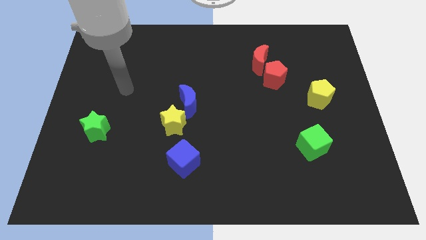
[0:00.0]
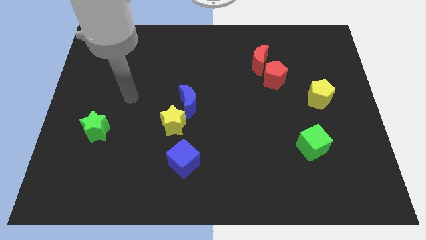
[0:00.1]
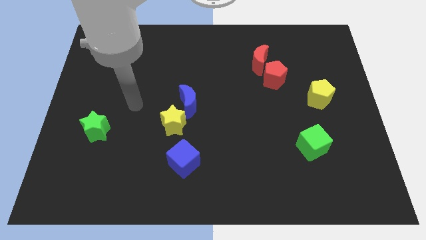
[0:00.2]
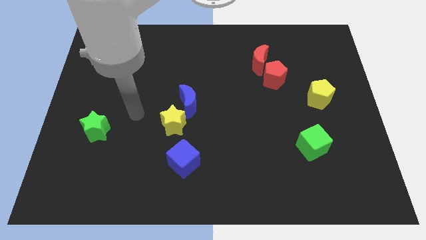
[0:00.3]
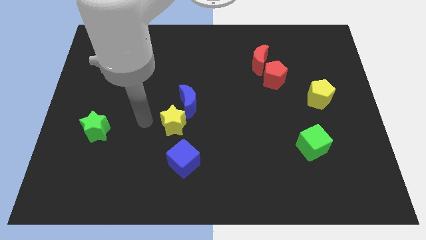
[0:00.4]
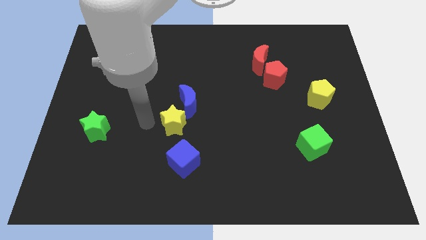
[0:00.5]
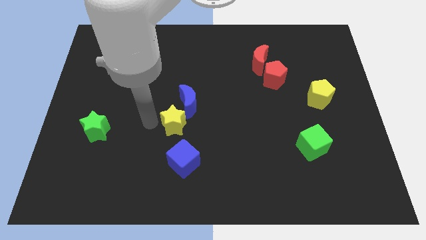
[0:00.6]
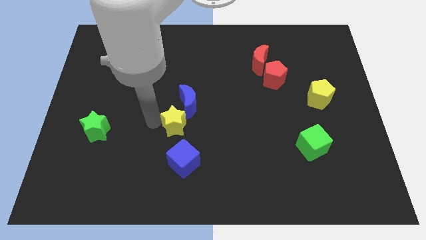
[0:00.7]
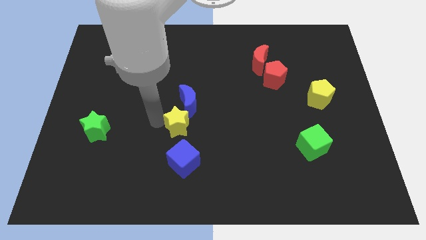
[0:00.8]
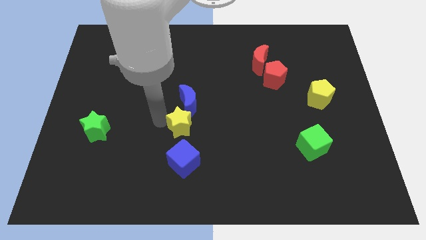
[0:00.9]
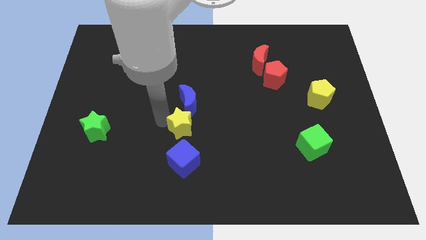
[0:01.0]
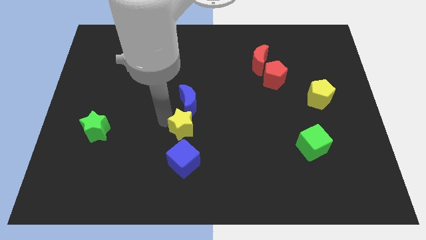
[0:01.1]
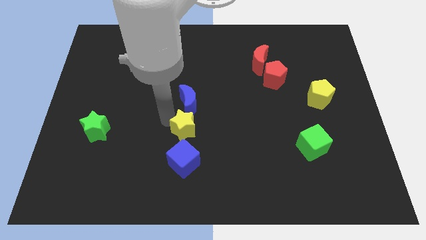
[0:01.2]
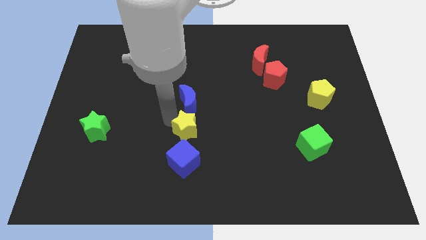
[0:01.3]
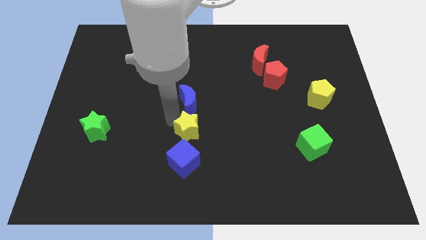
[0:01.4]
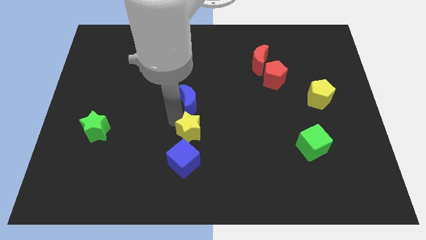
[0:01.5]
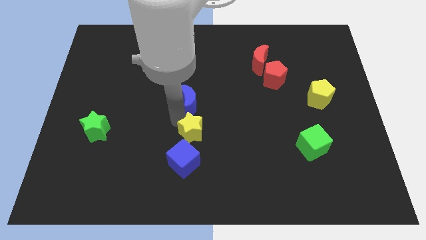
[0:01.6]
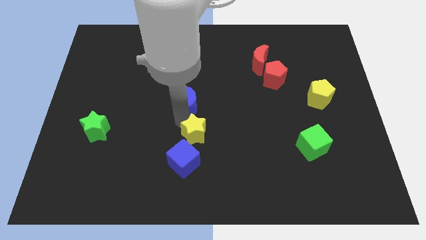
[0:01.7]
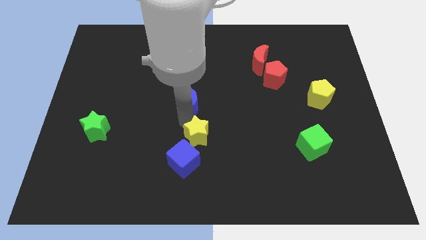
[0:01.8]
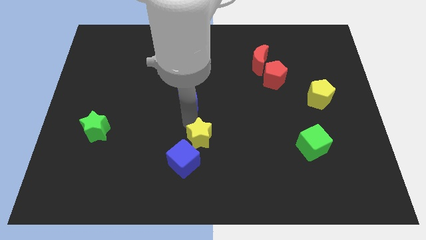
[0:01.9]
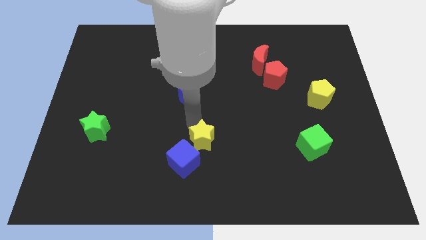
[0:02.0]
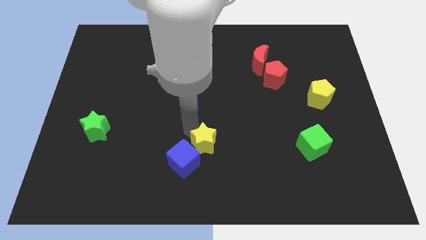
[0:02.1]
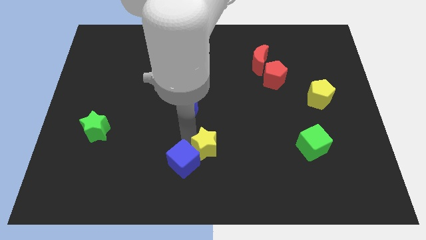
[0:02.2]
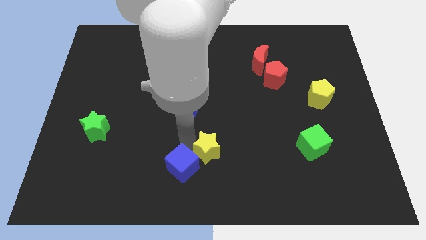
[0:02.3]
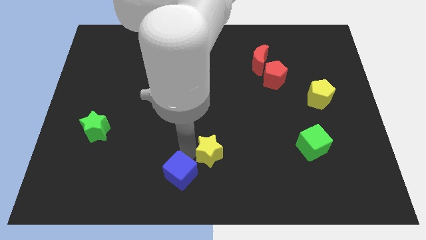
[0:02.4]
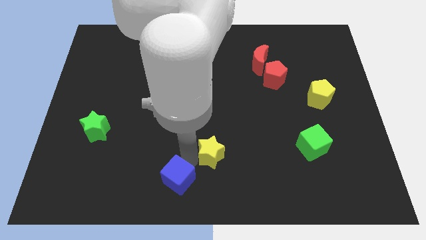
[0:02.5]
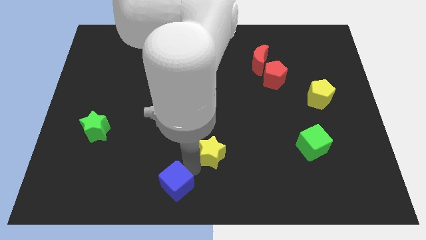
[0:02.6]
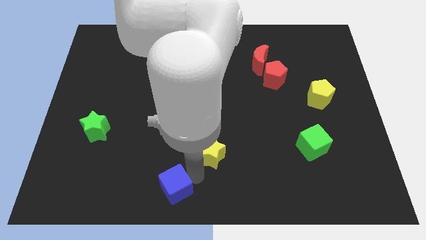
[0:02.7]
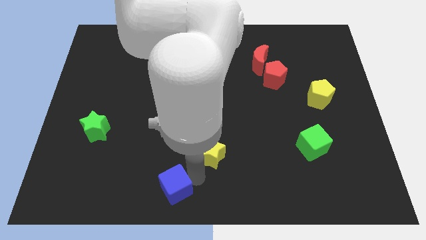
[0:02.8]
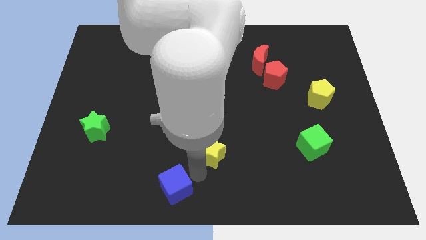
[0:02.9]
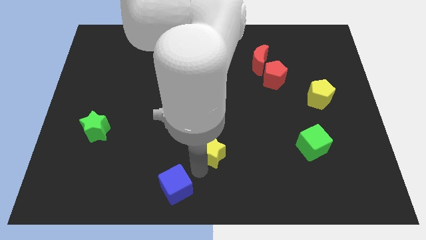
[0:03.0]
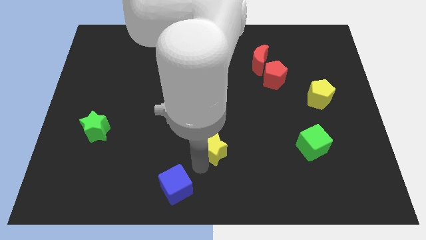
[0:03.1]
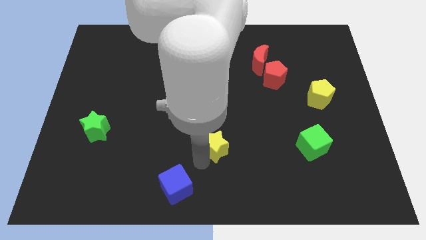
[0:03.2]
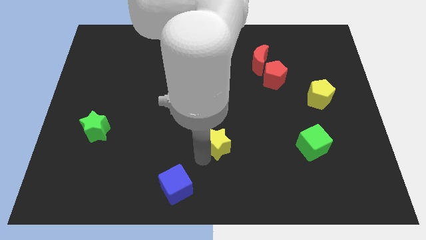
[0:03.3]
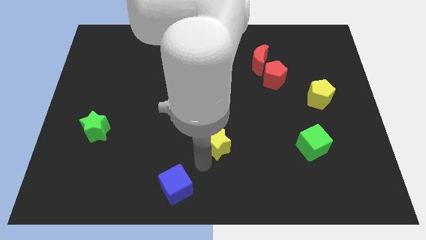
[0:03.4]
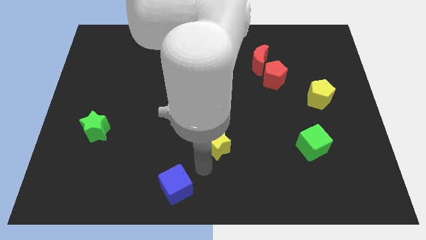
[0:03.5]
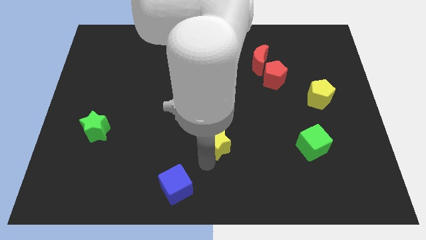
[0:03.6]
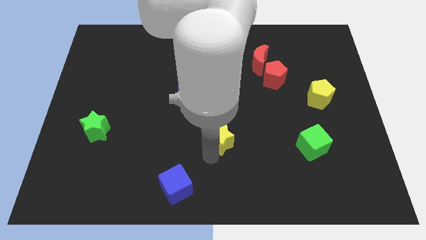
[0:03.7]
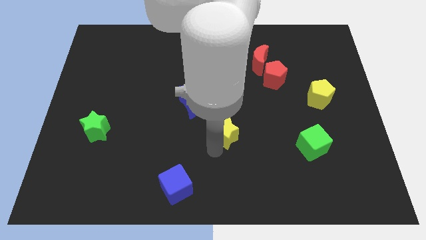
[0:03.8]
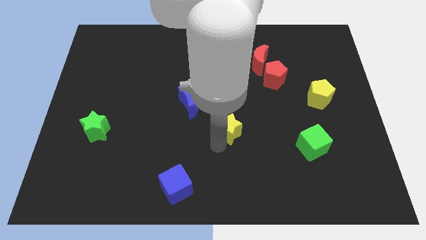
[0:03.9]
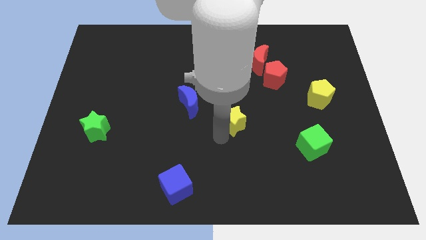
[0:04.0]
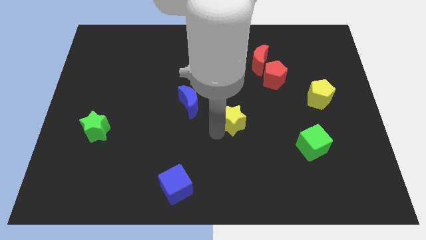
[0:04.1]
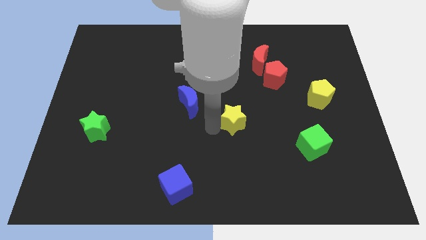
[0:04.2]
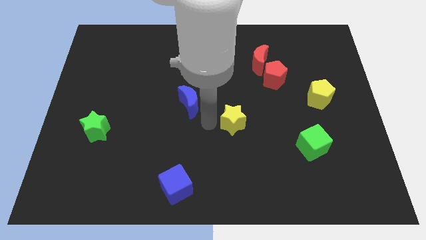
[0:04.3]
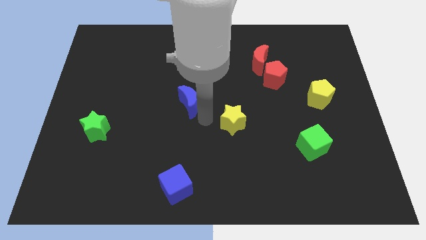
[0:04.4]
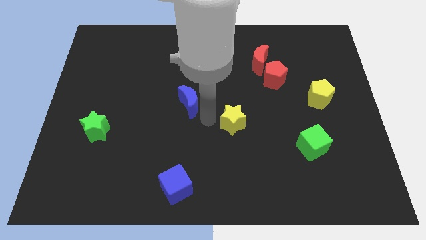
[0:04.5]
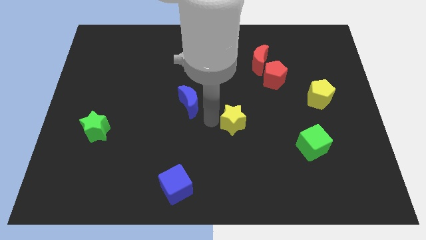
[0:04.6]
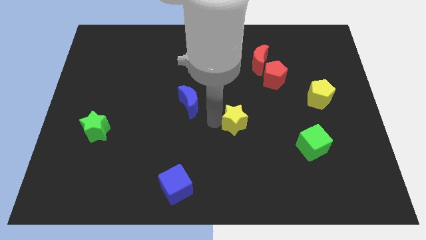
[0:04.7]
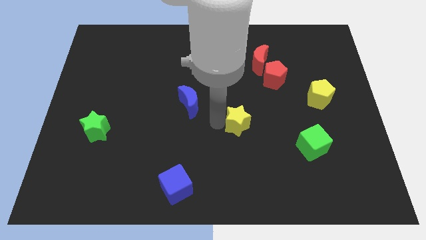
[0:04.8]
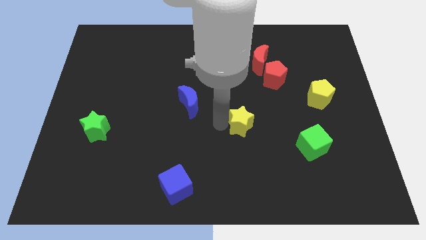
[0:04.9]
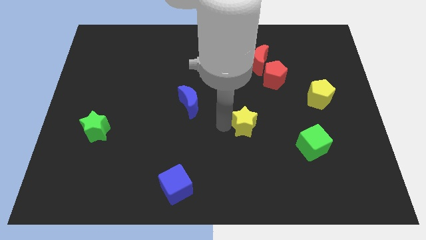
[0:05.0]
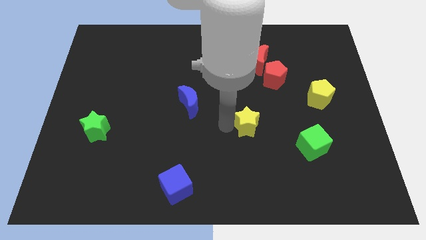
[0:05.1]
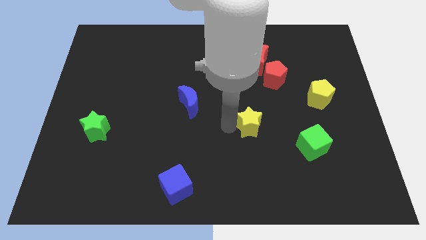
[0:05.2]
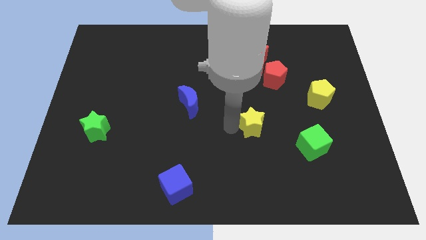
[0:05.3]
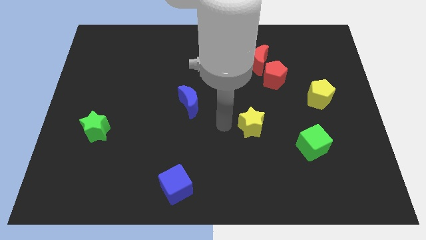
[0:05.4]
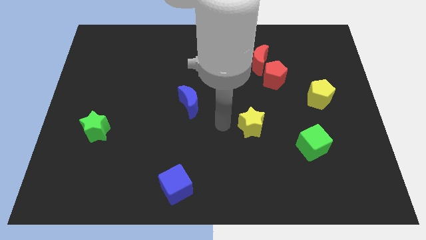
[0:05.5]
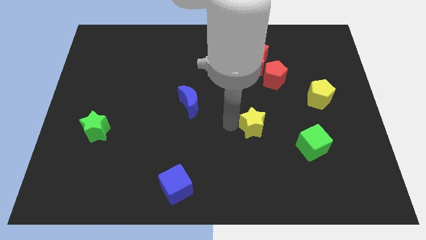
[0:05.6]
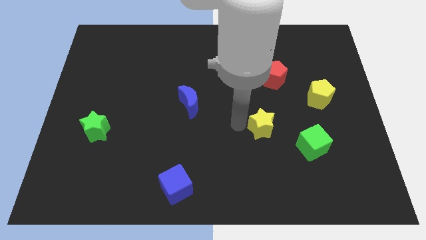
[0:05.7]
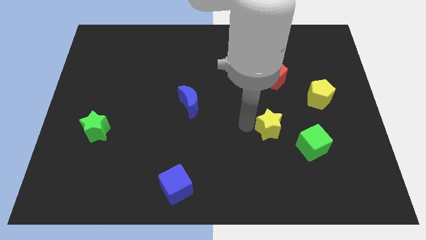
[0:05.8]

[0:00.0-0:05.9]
move the yellow star to the right

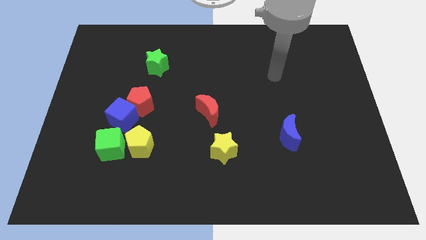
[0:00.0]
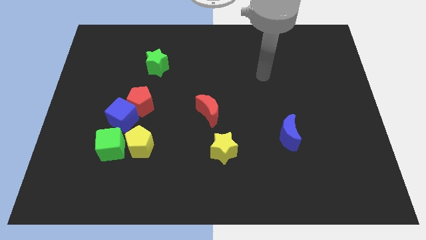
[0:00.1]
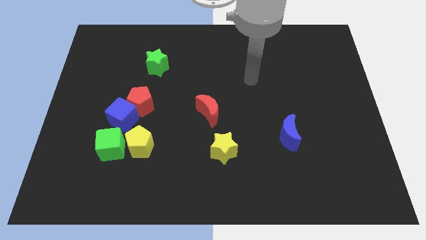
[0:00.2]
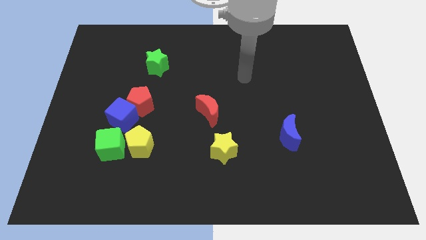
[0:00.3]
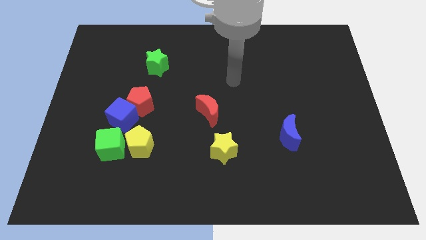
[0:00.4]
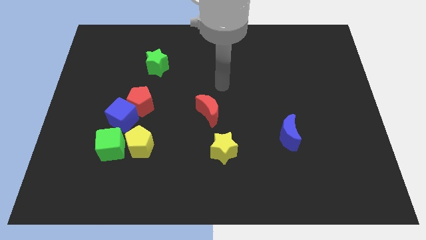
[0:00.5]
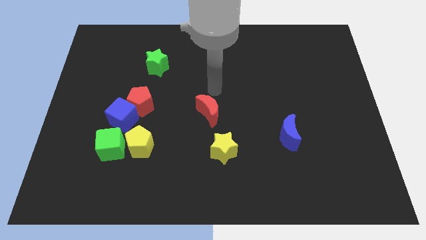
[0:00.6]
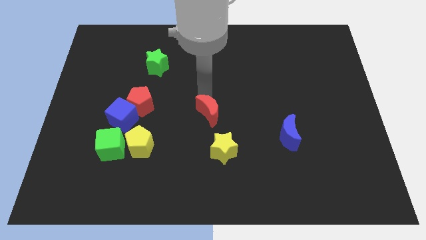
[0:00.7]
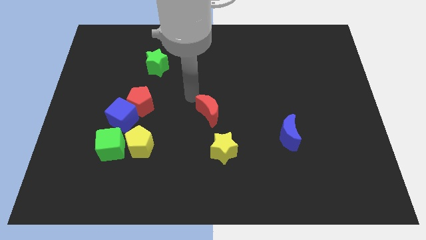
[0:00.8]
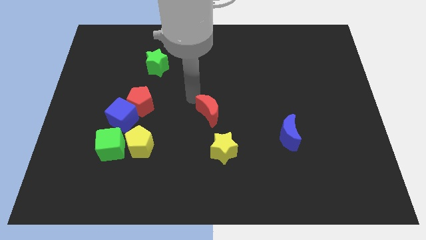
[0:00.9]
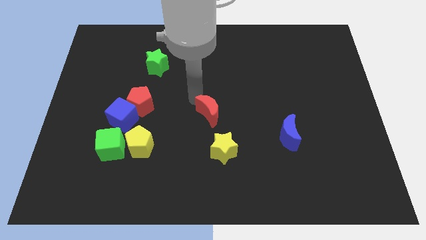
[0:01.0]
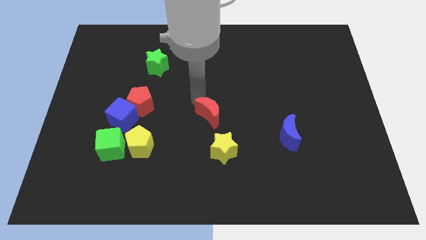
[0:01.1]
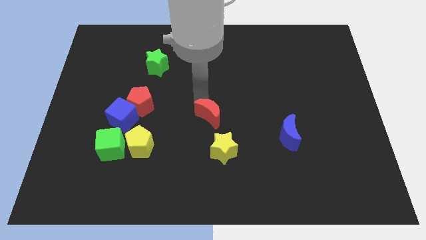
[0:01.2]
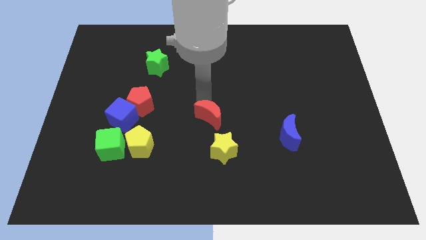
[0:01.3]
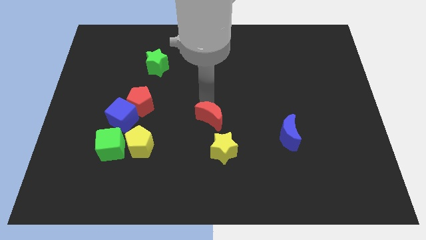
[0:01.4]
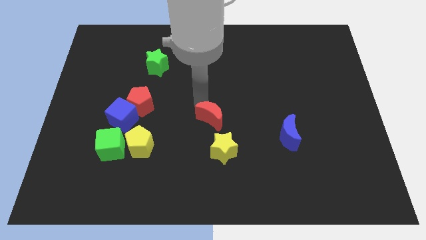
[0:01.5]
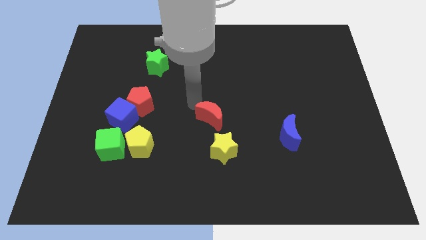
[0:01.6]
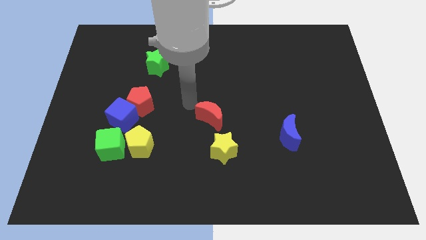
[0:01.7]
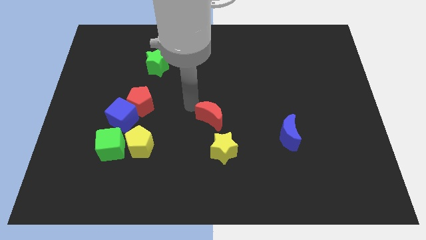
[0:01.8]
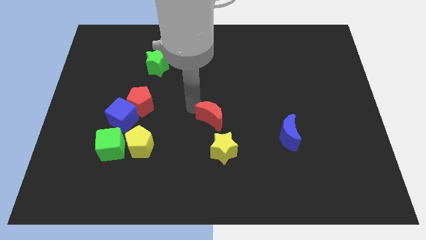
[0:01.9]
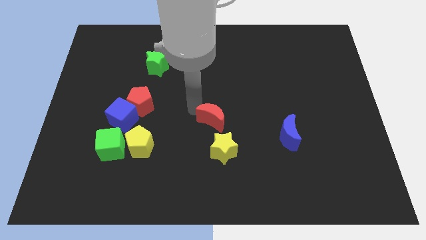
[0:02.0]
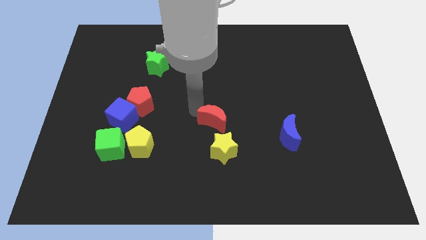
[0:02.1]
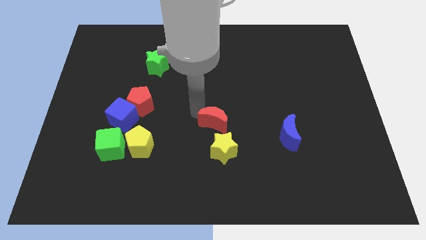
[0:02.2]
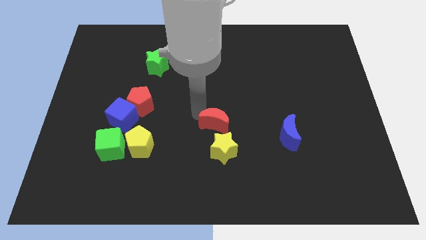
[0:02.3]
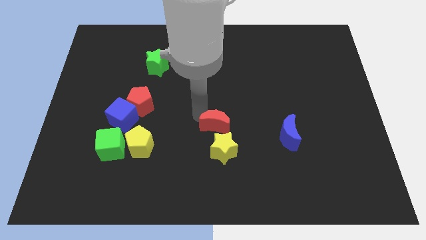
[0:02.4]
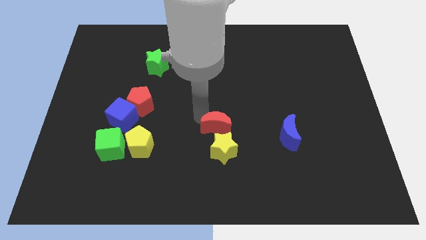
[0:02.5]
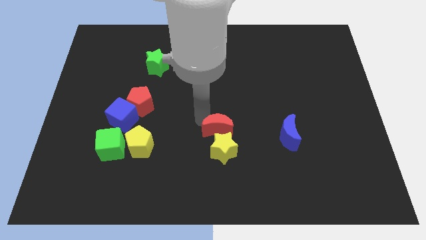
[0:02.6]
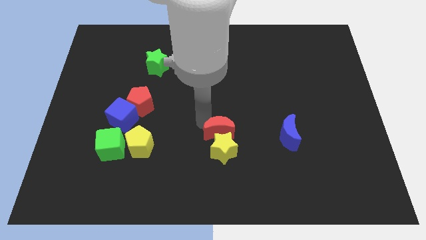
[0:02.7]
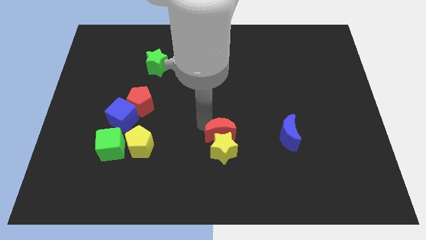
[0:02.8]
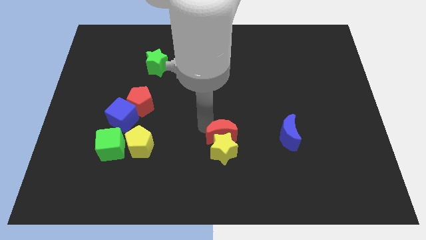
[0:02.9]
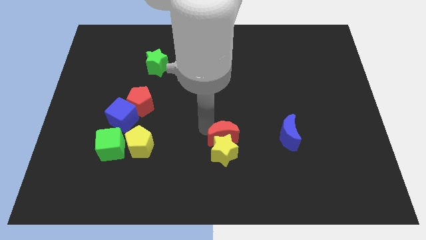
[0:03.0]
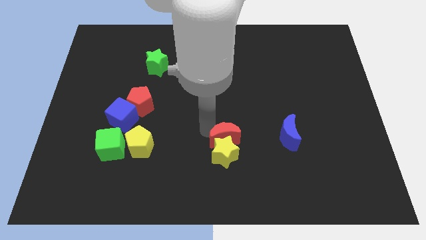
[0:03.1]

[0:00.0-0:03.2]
slide the red moon a bit downwards and right
